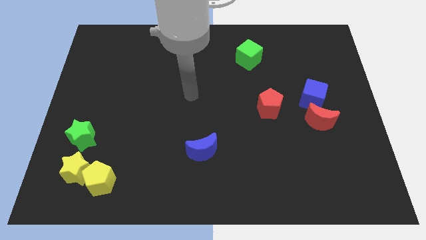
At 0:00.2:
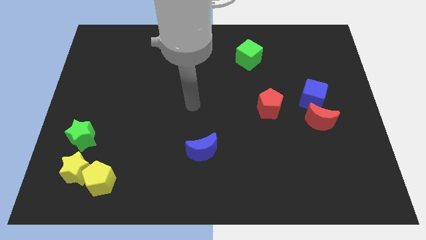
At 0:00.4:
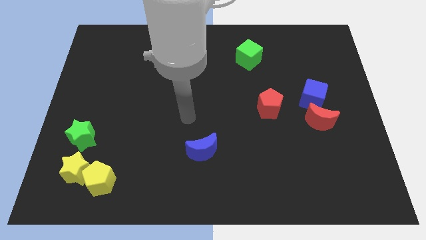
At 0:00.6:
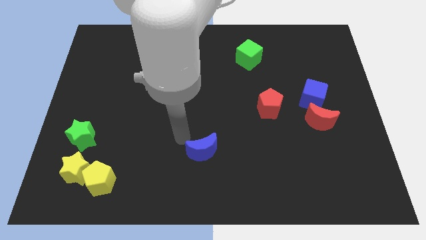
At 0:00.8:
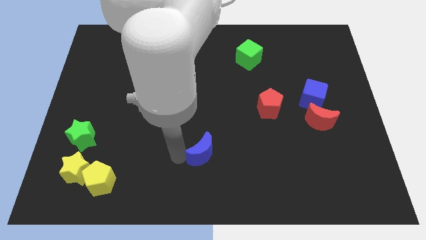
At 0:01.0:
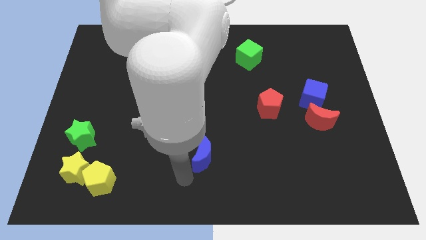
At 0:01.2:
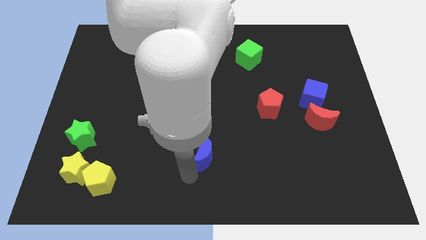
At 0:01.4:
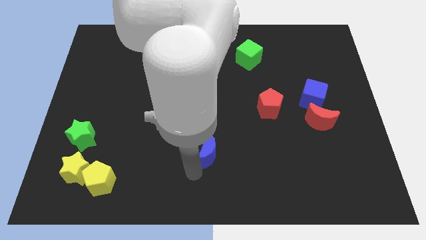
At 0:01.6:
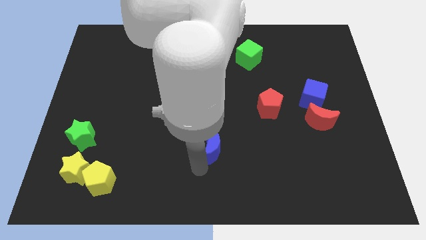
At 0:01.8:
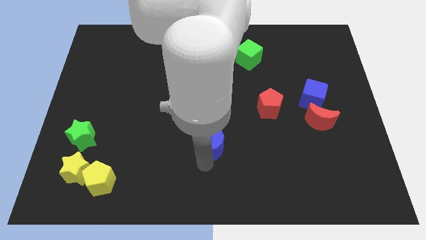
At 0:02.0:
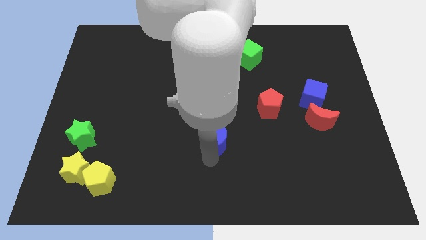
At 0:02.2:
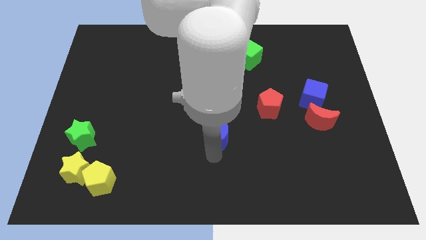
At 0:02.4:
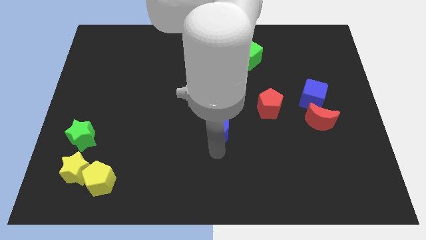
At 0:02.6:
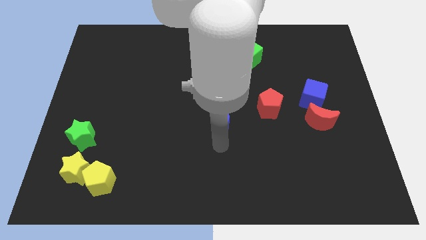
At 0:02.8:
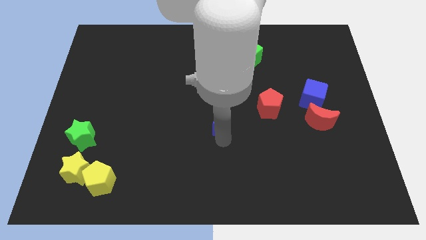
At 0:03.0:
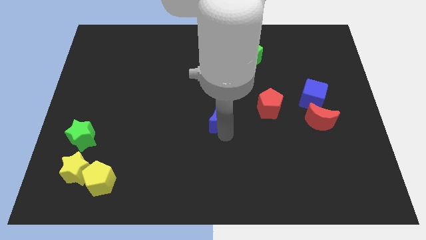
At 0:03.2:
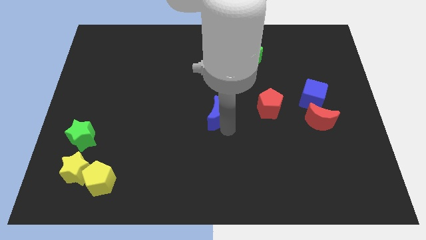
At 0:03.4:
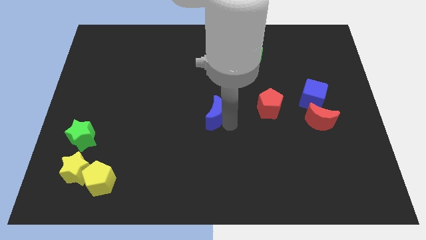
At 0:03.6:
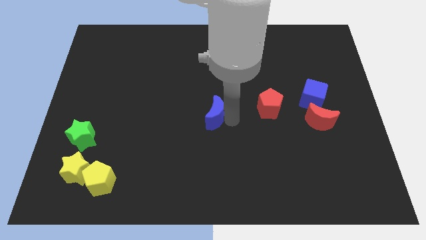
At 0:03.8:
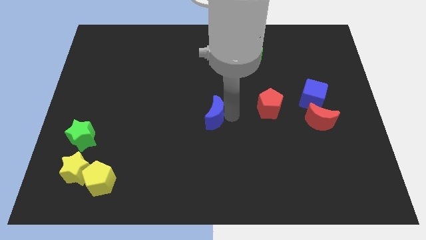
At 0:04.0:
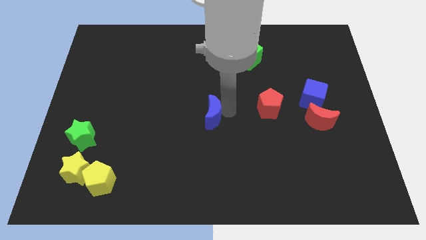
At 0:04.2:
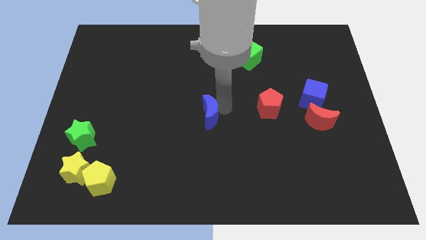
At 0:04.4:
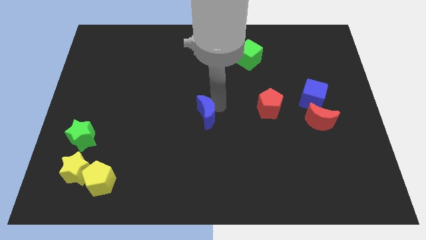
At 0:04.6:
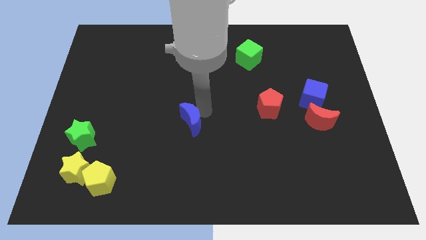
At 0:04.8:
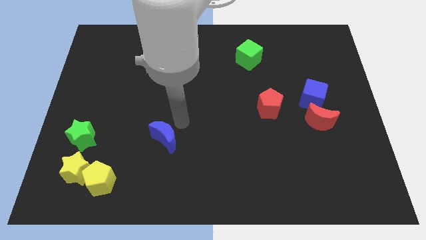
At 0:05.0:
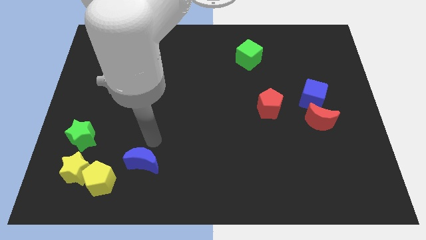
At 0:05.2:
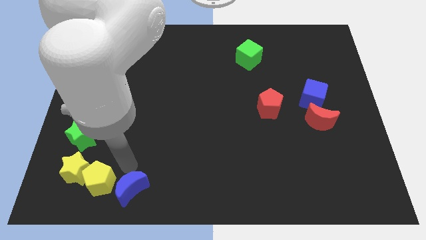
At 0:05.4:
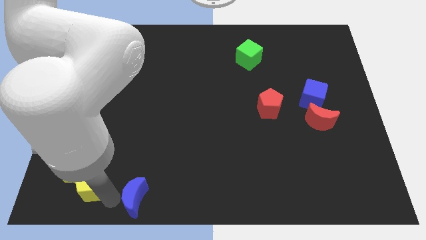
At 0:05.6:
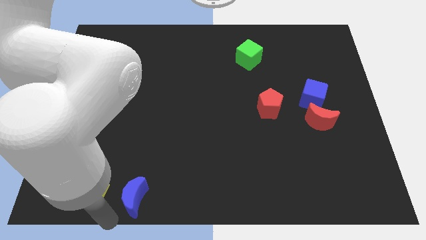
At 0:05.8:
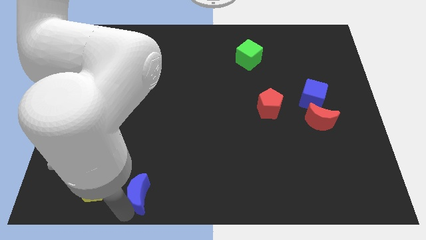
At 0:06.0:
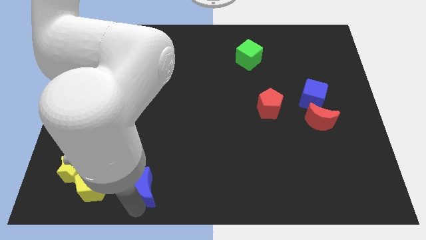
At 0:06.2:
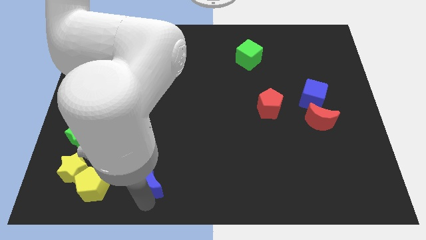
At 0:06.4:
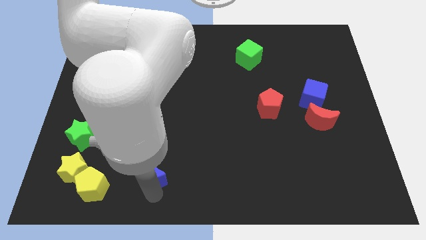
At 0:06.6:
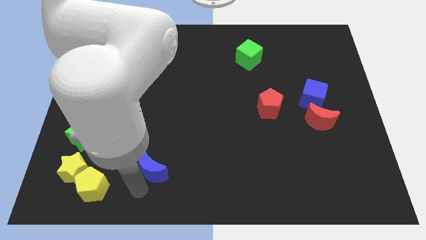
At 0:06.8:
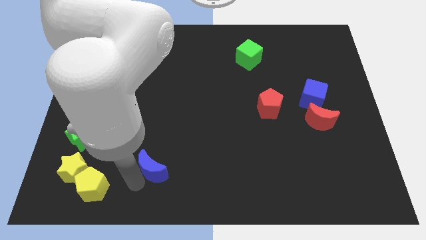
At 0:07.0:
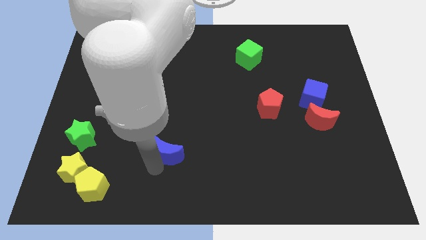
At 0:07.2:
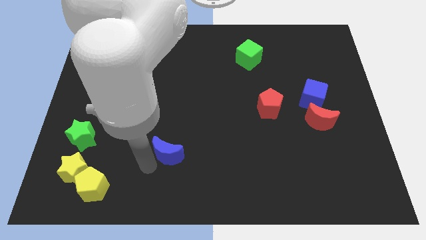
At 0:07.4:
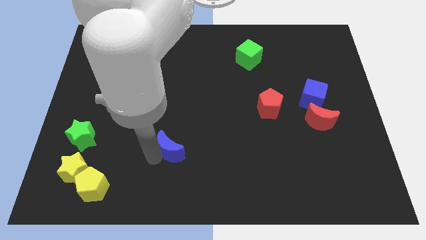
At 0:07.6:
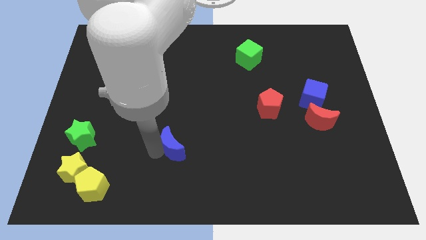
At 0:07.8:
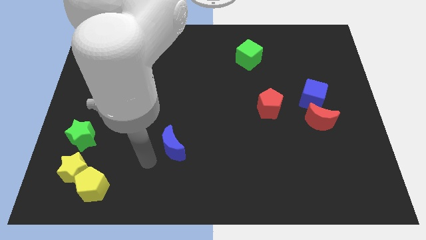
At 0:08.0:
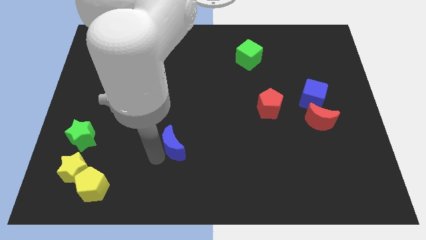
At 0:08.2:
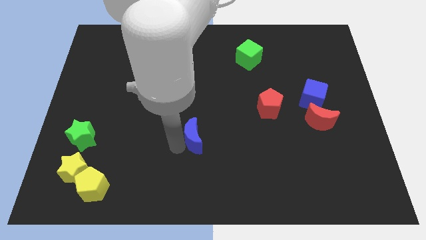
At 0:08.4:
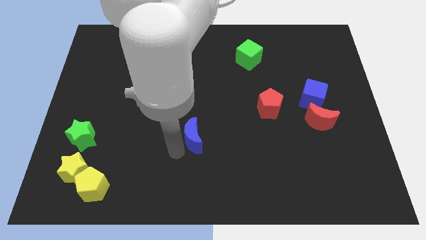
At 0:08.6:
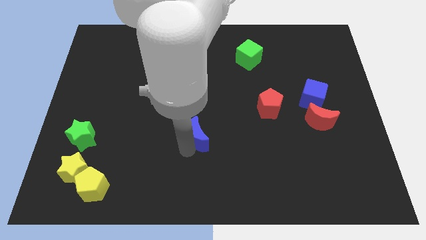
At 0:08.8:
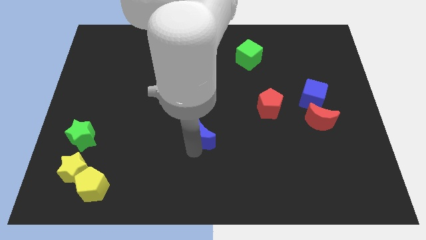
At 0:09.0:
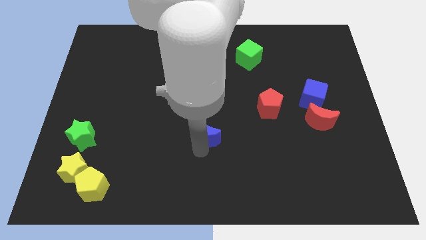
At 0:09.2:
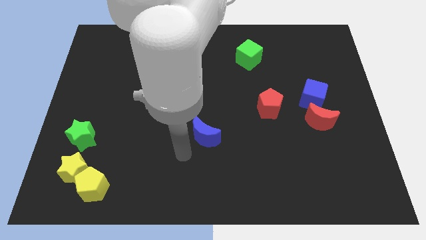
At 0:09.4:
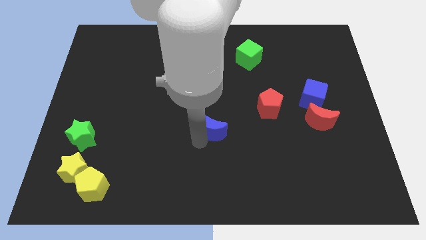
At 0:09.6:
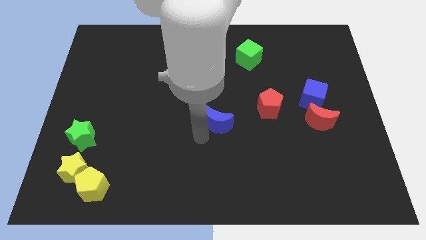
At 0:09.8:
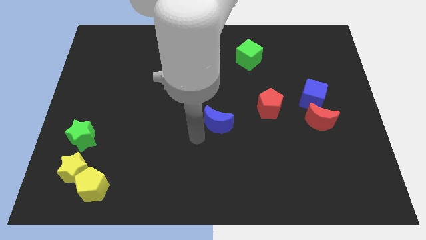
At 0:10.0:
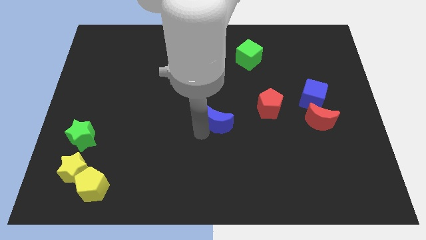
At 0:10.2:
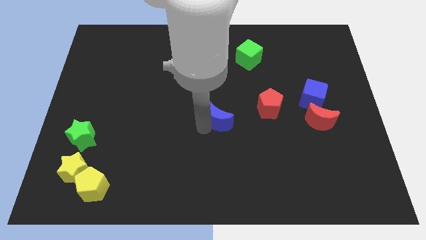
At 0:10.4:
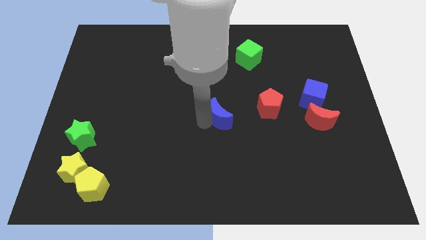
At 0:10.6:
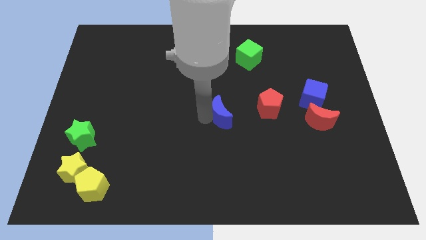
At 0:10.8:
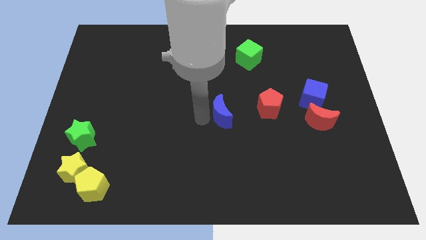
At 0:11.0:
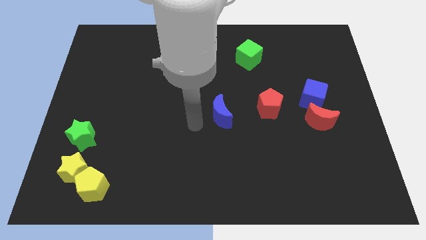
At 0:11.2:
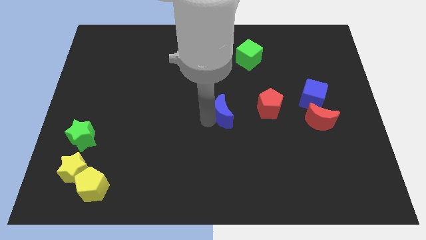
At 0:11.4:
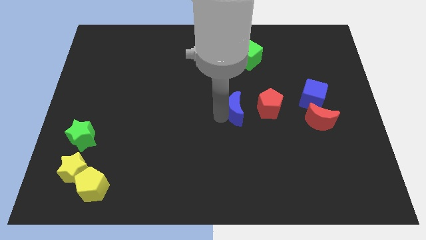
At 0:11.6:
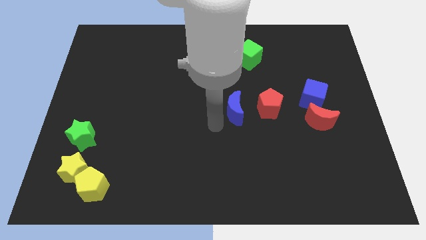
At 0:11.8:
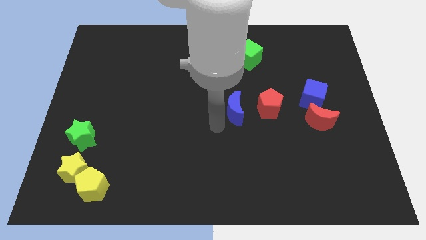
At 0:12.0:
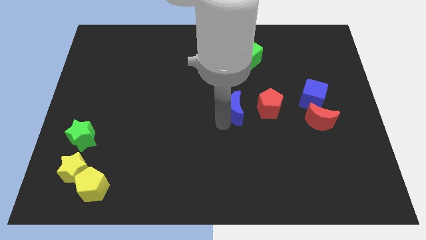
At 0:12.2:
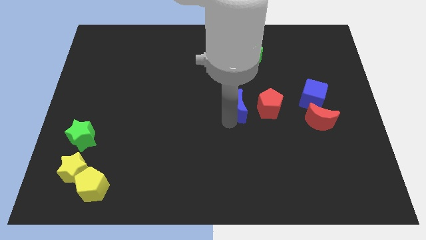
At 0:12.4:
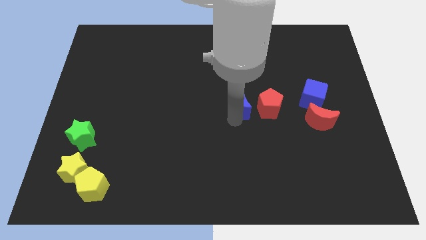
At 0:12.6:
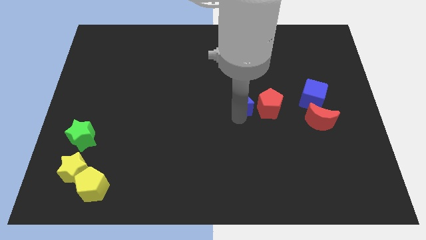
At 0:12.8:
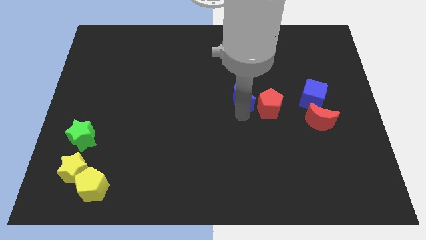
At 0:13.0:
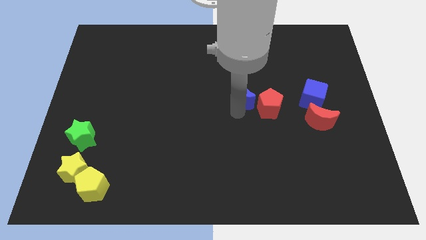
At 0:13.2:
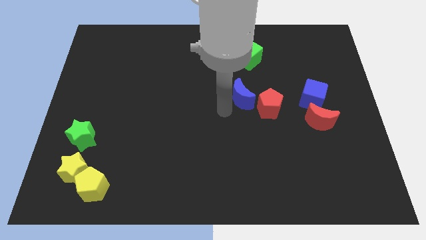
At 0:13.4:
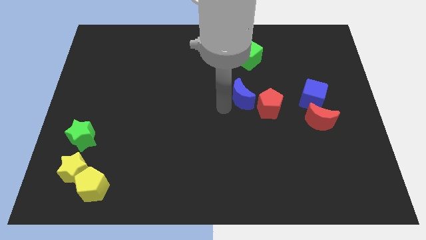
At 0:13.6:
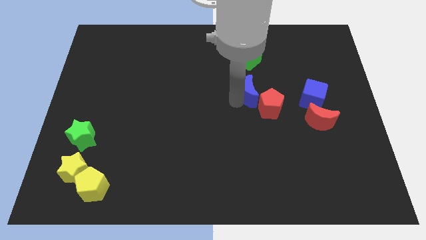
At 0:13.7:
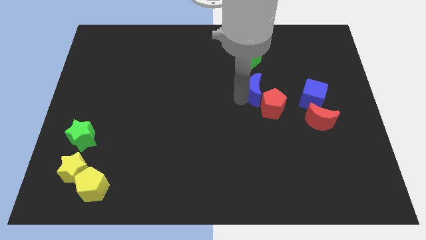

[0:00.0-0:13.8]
slide the blue moon diagonally upwards and right

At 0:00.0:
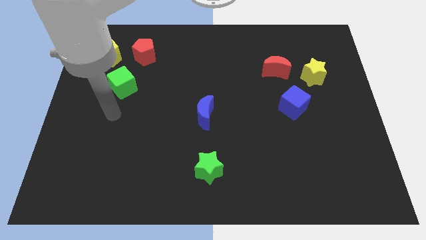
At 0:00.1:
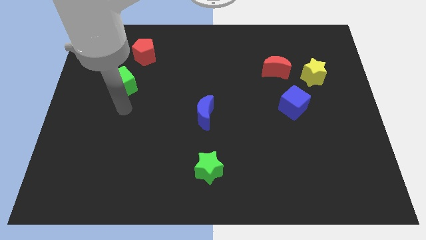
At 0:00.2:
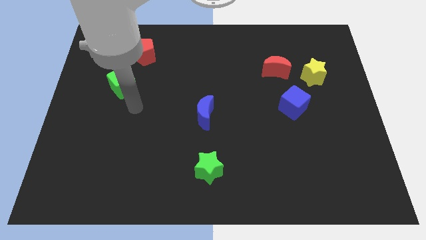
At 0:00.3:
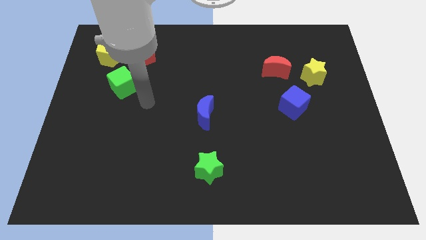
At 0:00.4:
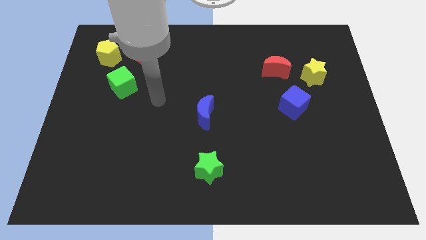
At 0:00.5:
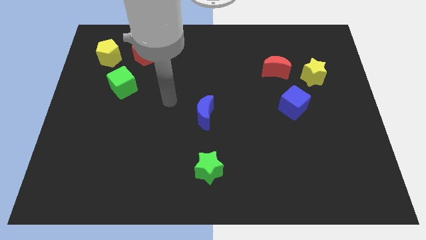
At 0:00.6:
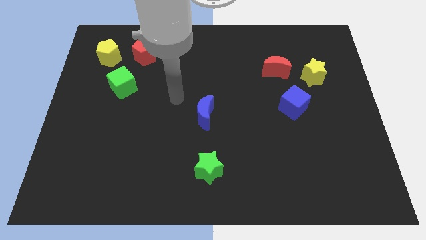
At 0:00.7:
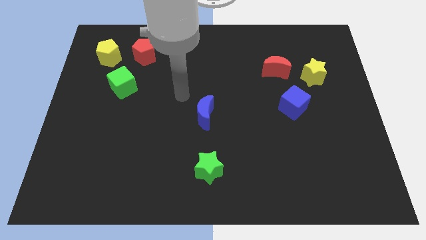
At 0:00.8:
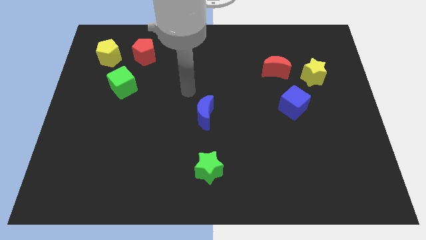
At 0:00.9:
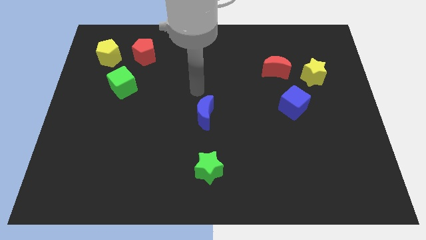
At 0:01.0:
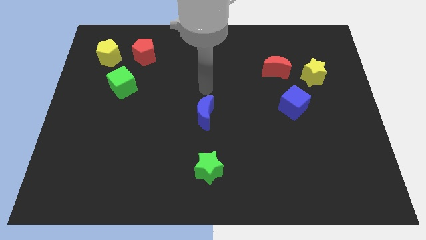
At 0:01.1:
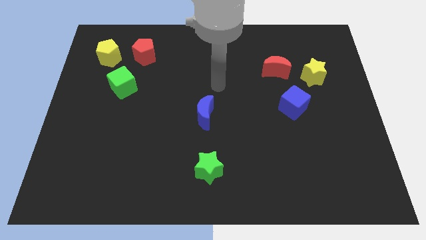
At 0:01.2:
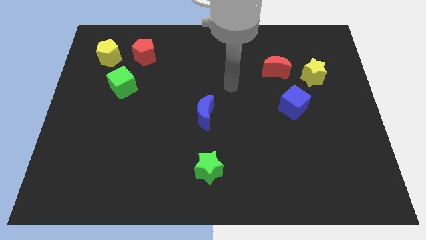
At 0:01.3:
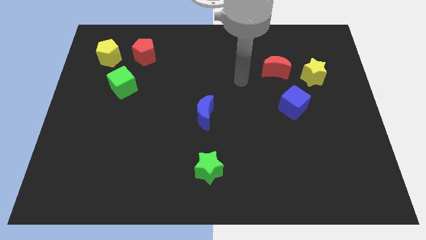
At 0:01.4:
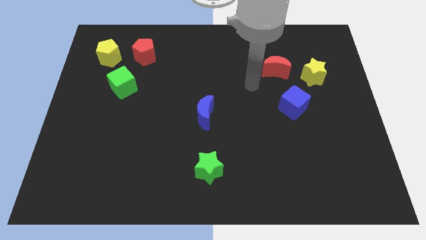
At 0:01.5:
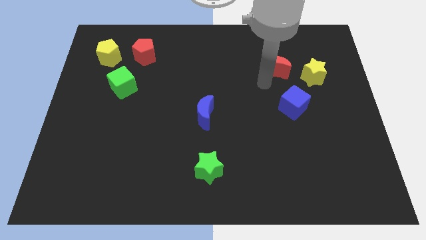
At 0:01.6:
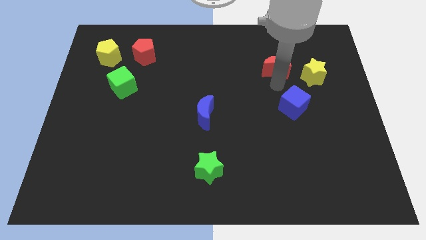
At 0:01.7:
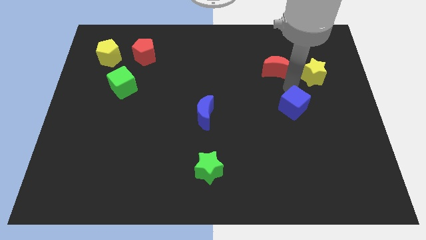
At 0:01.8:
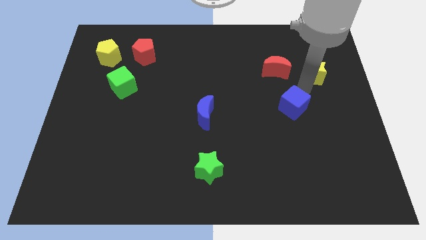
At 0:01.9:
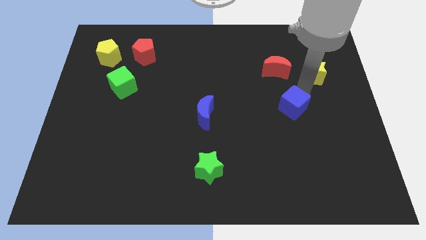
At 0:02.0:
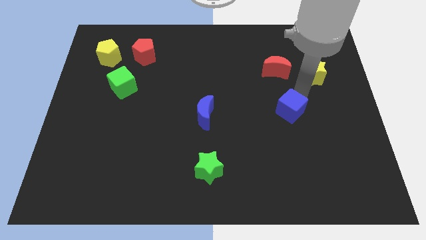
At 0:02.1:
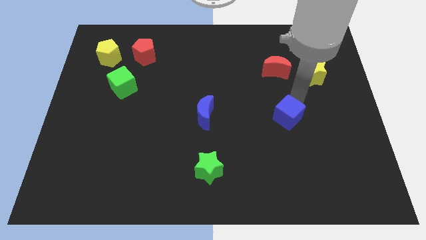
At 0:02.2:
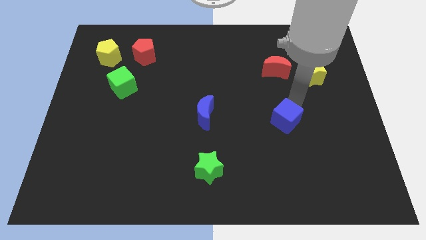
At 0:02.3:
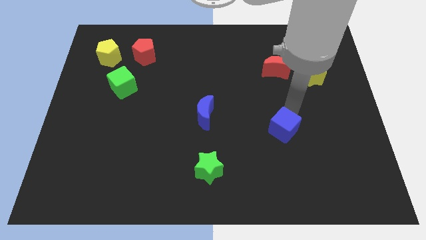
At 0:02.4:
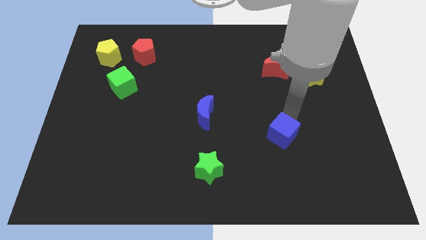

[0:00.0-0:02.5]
slightly slide the blue cube downwards and then to the left
